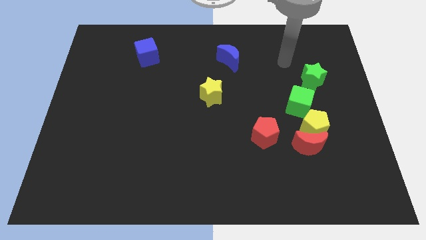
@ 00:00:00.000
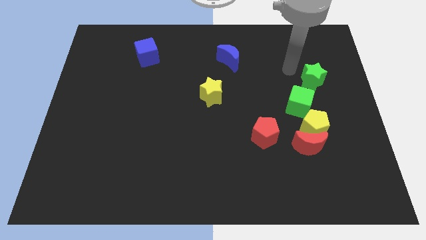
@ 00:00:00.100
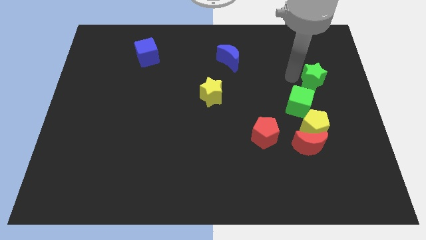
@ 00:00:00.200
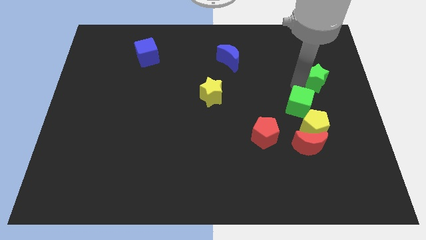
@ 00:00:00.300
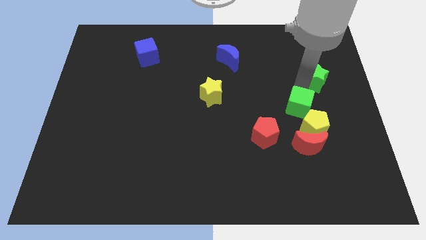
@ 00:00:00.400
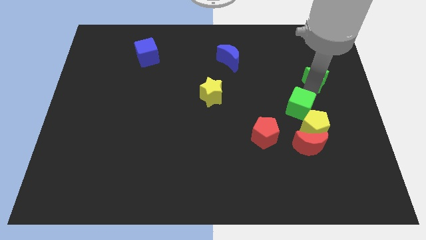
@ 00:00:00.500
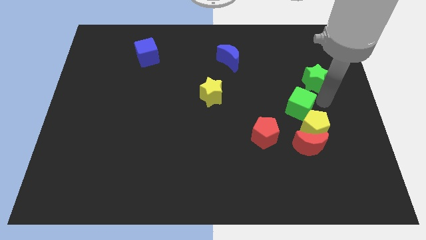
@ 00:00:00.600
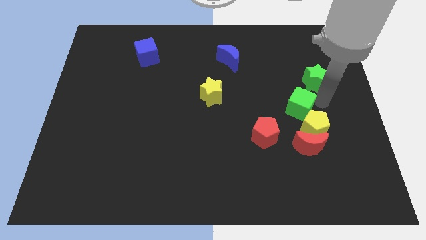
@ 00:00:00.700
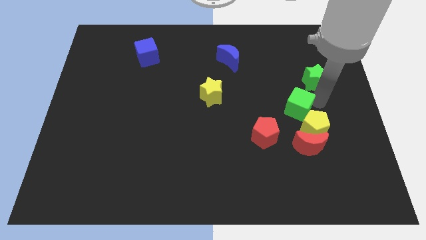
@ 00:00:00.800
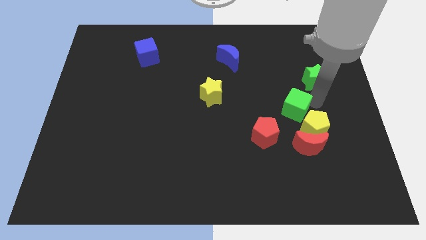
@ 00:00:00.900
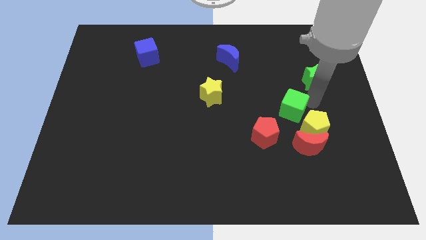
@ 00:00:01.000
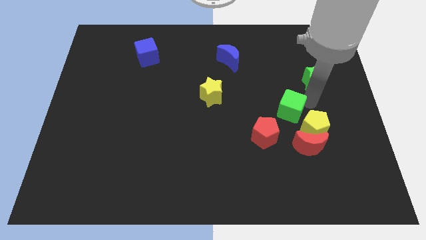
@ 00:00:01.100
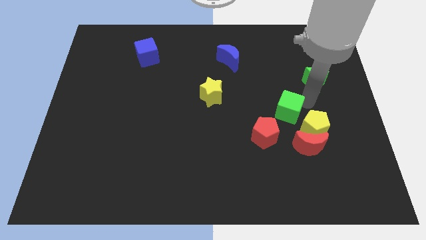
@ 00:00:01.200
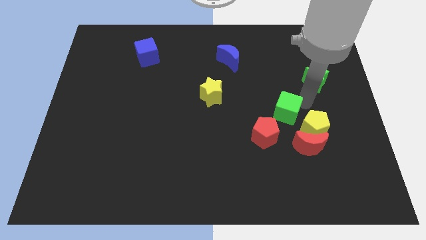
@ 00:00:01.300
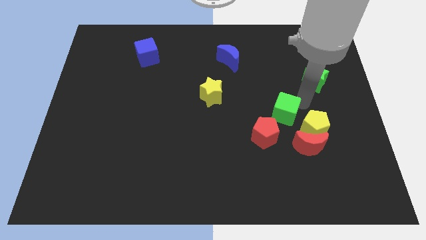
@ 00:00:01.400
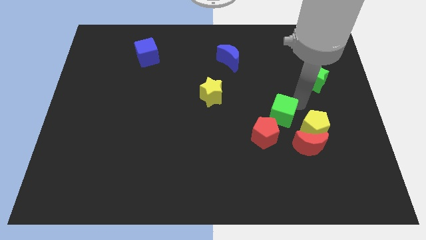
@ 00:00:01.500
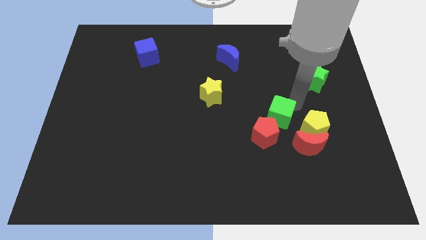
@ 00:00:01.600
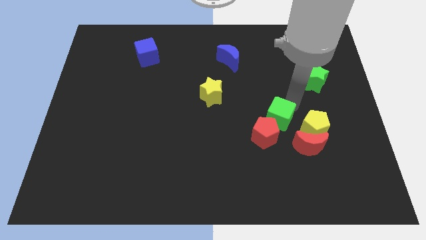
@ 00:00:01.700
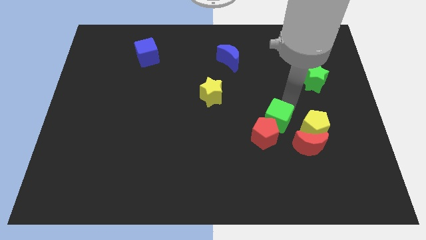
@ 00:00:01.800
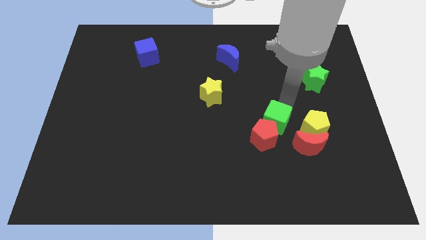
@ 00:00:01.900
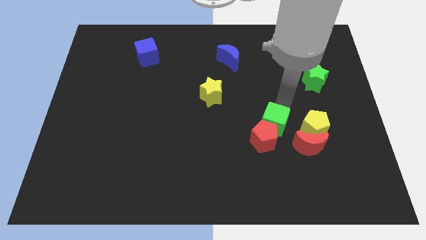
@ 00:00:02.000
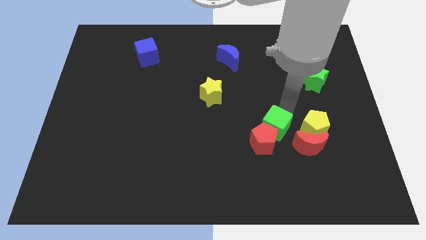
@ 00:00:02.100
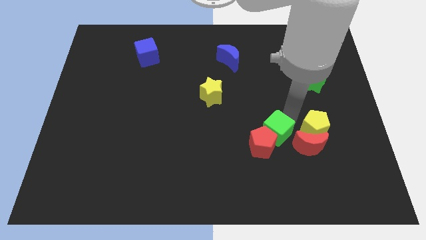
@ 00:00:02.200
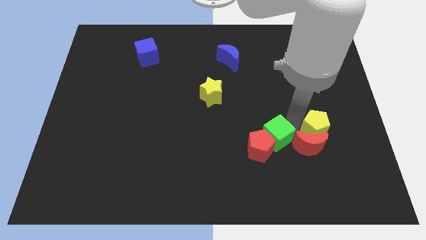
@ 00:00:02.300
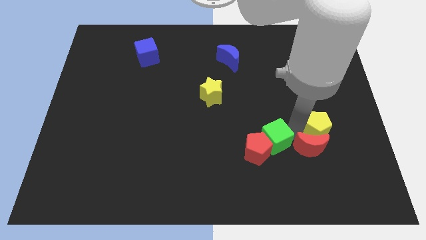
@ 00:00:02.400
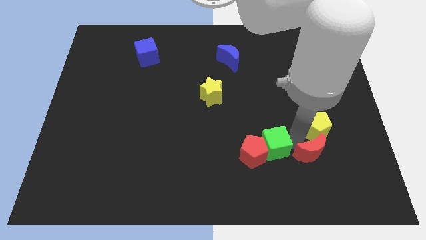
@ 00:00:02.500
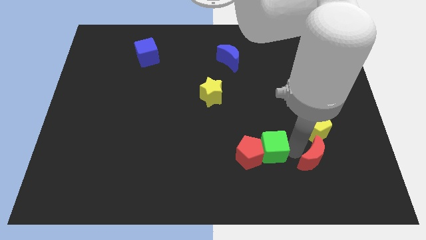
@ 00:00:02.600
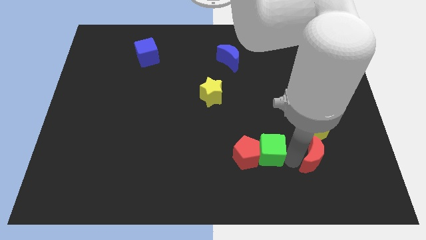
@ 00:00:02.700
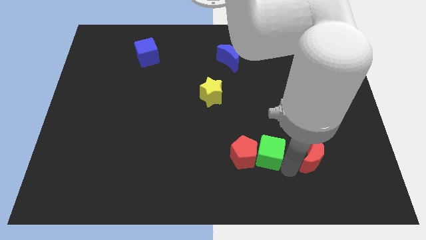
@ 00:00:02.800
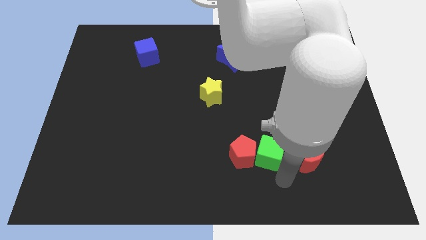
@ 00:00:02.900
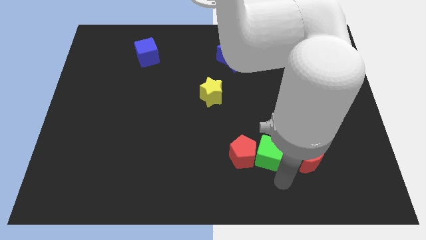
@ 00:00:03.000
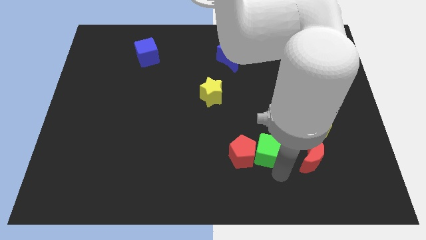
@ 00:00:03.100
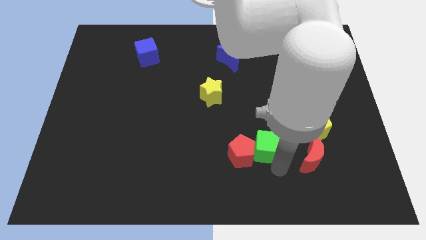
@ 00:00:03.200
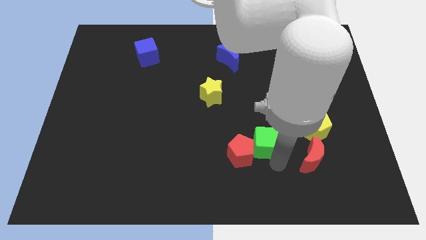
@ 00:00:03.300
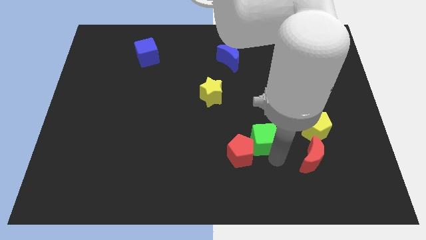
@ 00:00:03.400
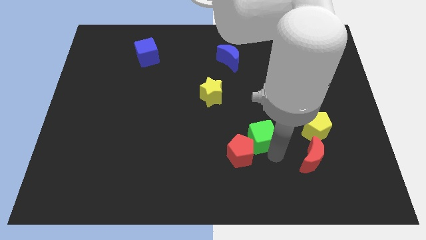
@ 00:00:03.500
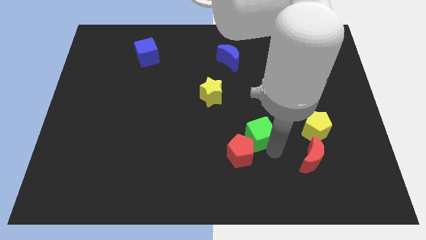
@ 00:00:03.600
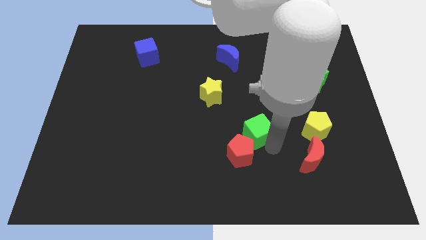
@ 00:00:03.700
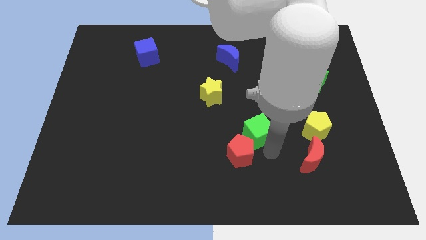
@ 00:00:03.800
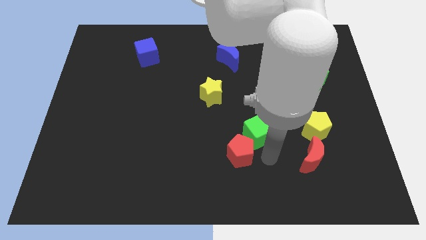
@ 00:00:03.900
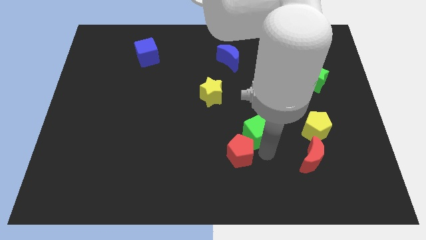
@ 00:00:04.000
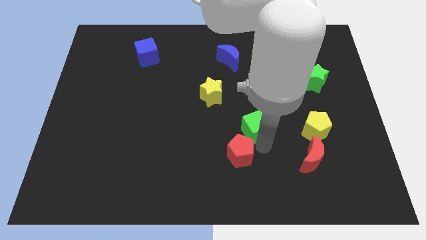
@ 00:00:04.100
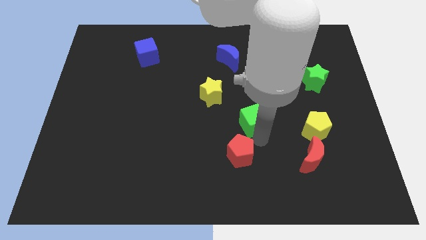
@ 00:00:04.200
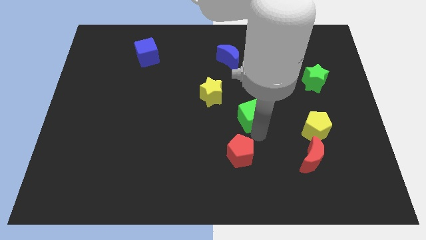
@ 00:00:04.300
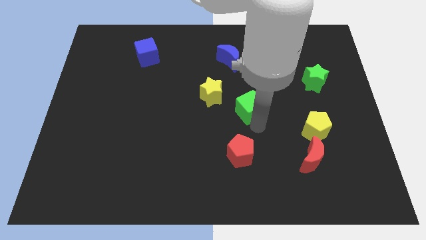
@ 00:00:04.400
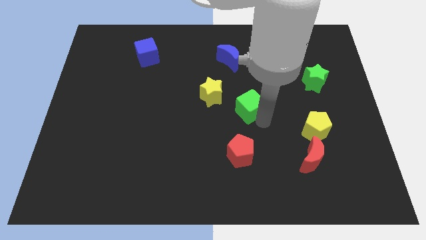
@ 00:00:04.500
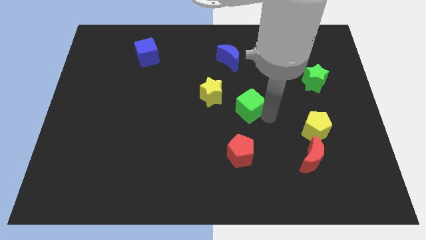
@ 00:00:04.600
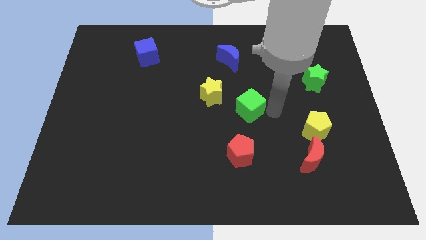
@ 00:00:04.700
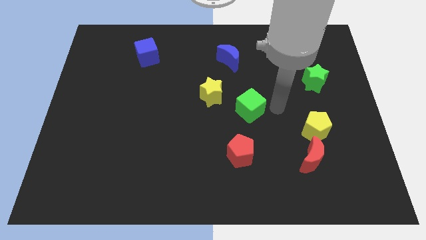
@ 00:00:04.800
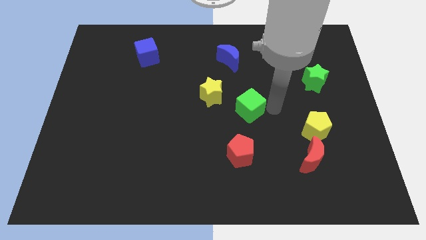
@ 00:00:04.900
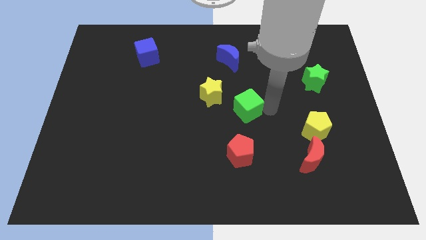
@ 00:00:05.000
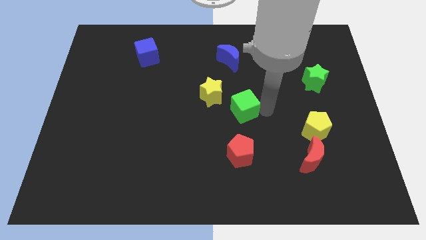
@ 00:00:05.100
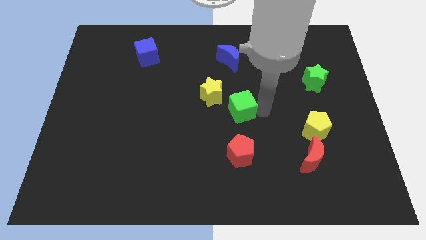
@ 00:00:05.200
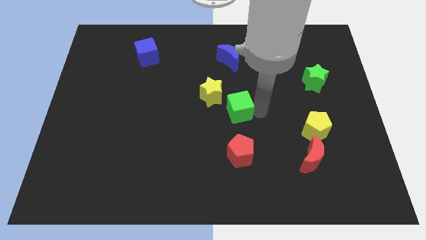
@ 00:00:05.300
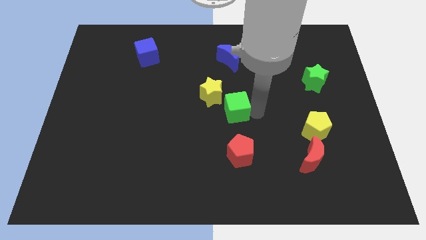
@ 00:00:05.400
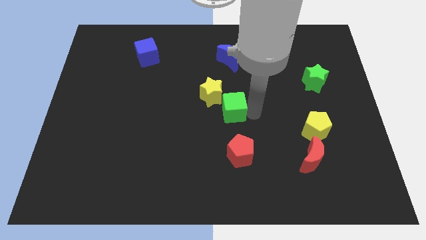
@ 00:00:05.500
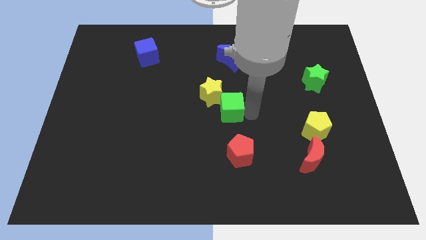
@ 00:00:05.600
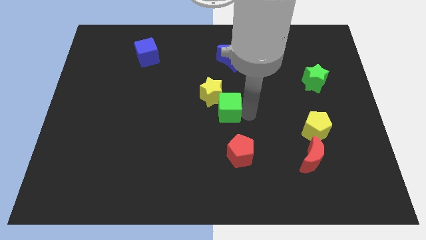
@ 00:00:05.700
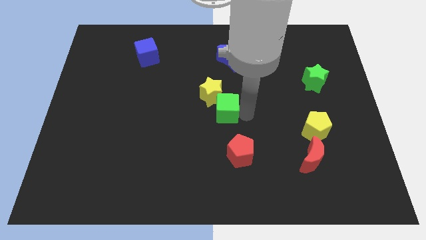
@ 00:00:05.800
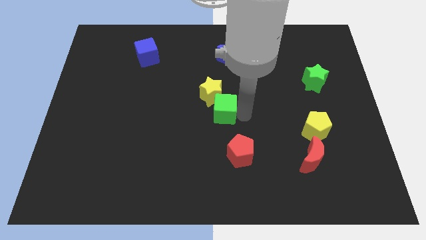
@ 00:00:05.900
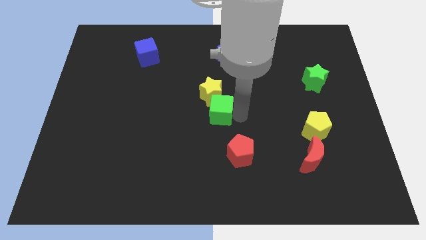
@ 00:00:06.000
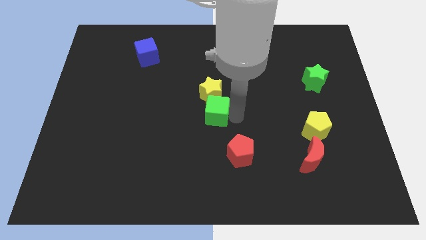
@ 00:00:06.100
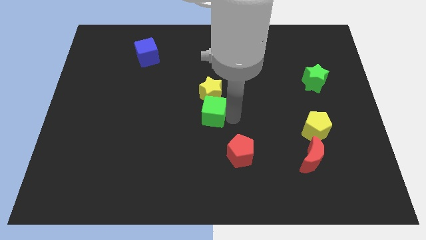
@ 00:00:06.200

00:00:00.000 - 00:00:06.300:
slide the green cube to the left

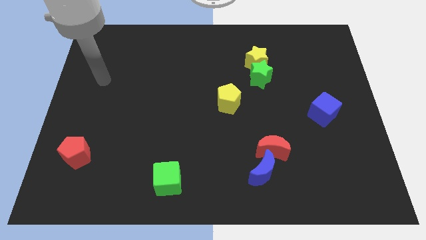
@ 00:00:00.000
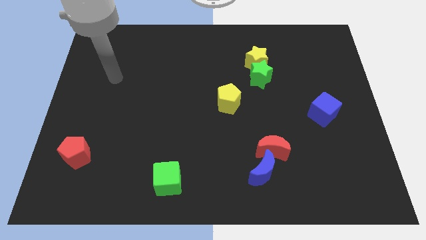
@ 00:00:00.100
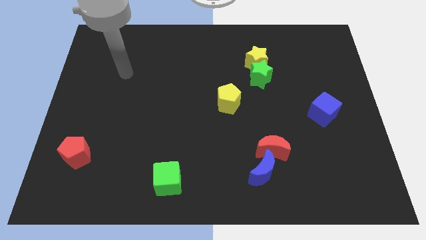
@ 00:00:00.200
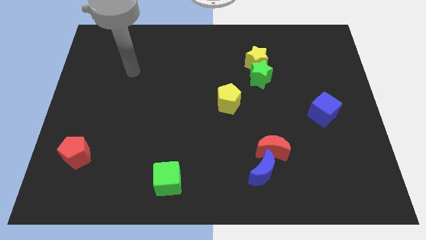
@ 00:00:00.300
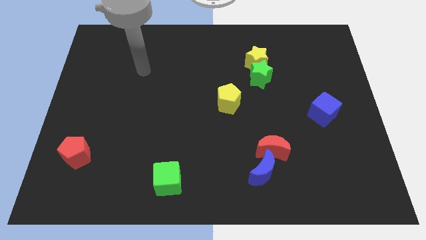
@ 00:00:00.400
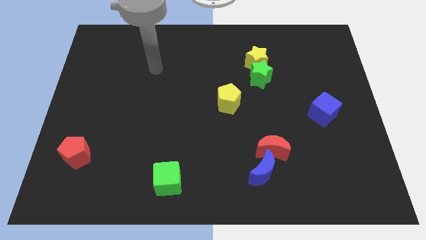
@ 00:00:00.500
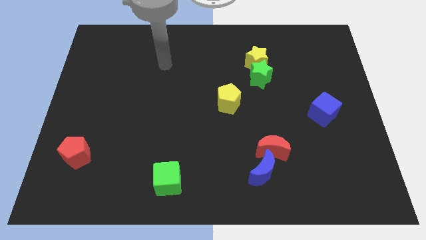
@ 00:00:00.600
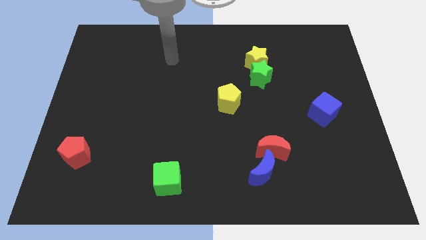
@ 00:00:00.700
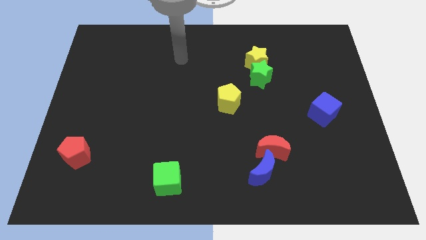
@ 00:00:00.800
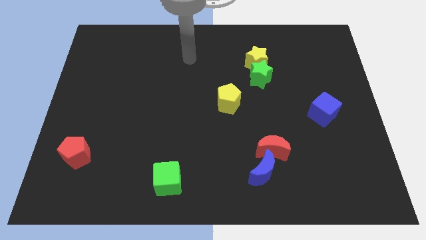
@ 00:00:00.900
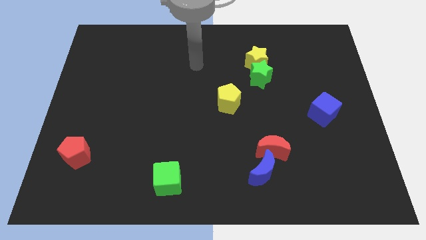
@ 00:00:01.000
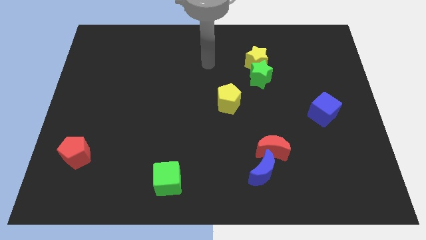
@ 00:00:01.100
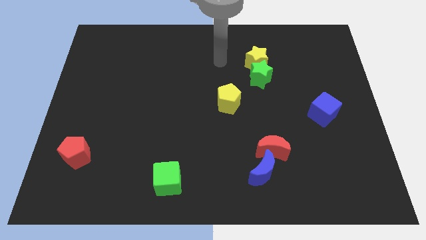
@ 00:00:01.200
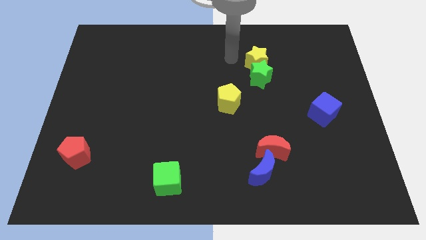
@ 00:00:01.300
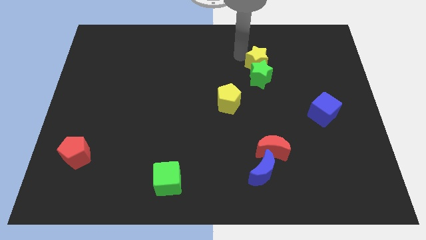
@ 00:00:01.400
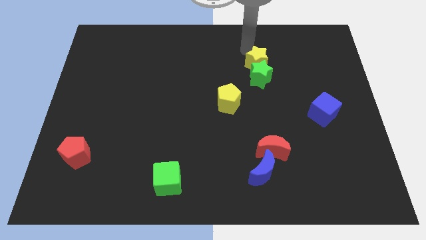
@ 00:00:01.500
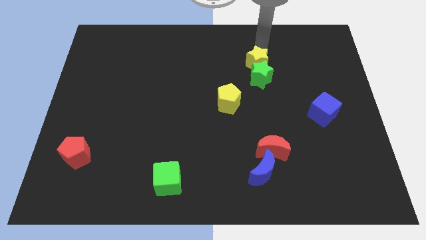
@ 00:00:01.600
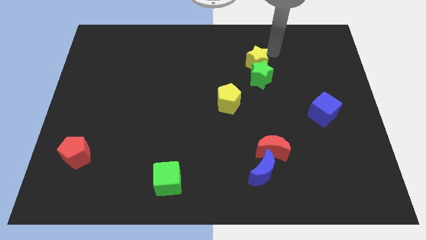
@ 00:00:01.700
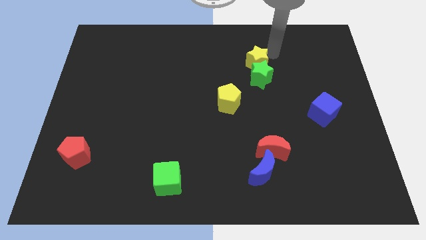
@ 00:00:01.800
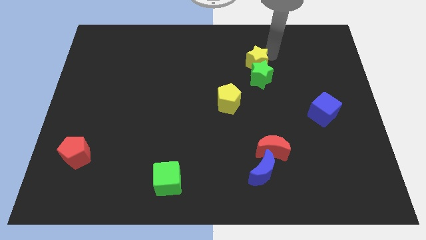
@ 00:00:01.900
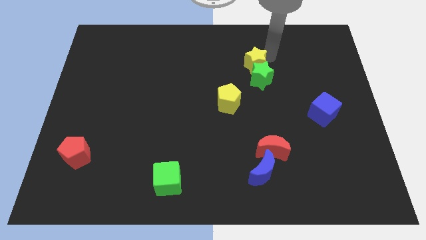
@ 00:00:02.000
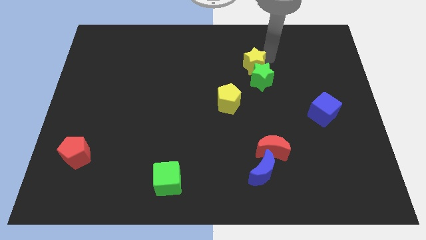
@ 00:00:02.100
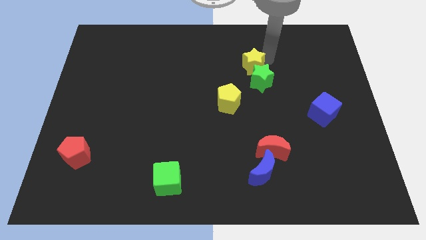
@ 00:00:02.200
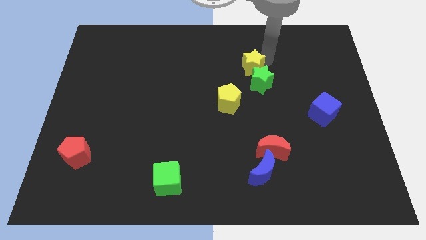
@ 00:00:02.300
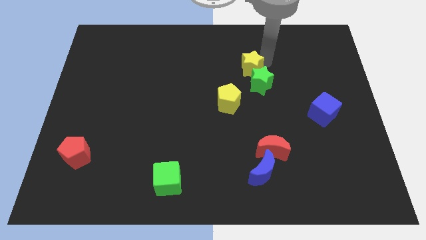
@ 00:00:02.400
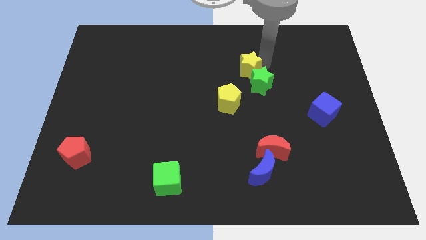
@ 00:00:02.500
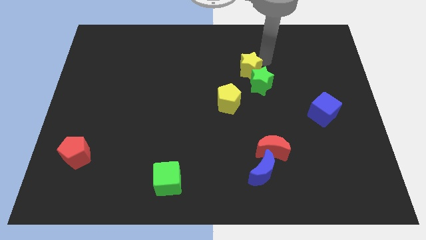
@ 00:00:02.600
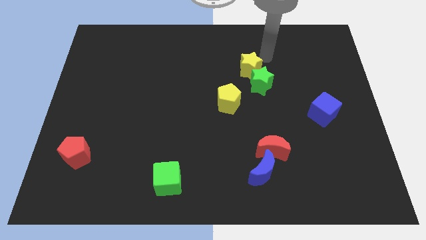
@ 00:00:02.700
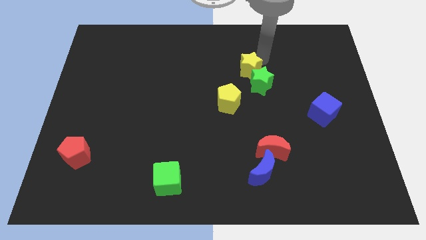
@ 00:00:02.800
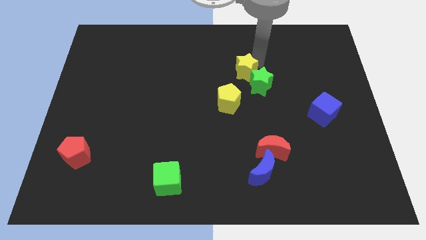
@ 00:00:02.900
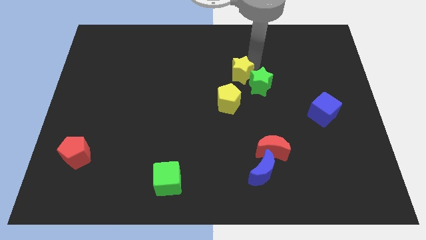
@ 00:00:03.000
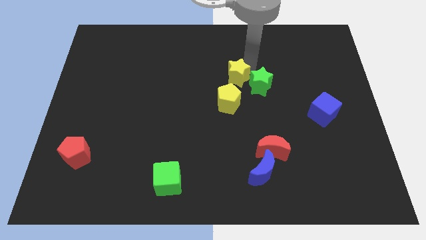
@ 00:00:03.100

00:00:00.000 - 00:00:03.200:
slide the yellow star downwards and then left a bit
